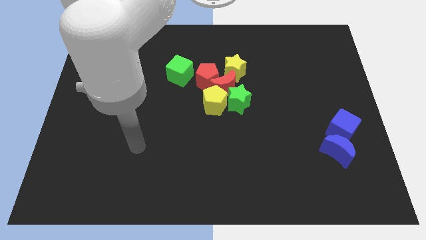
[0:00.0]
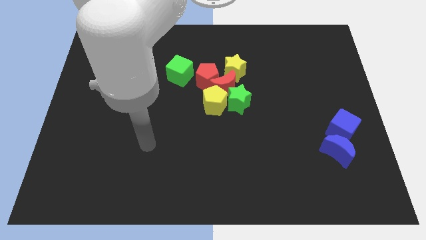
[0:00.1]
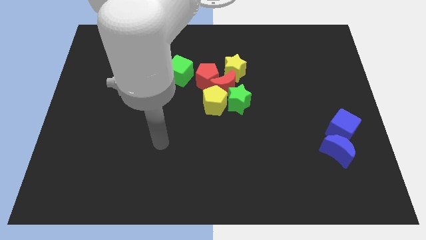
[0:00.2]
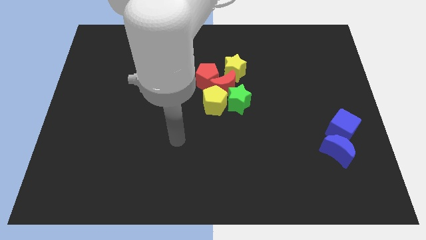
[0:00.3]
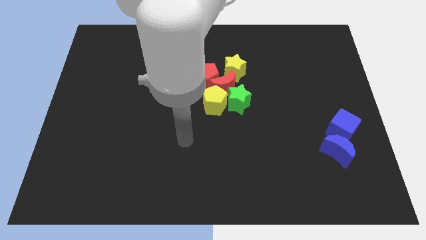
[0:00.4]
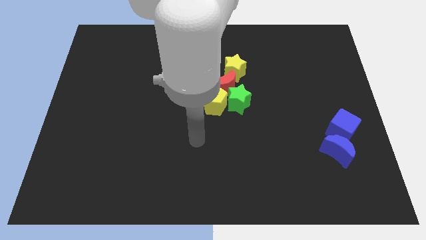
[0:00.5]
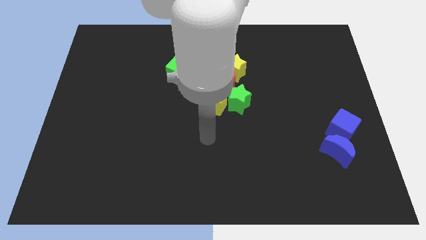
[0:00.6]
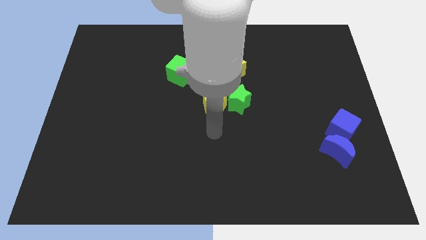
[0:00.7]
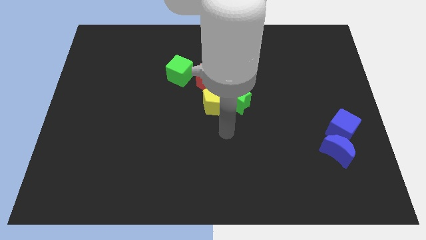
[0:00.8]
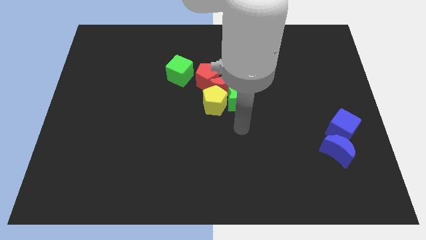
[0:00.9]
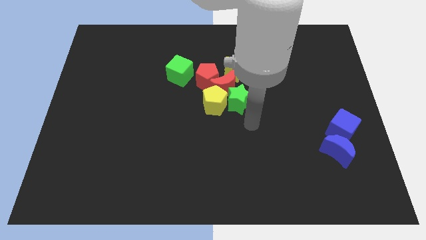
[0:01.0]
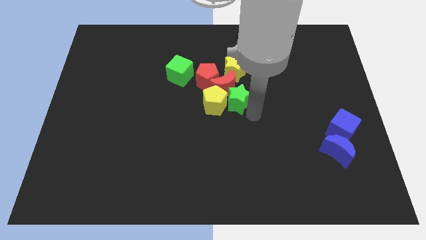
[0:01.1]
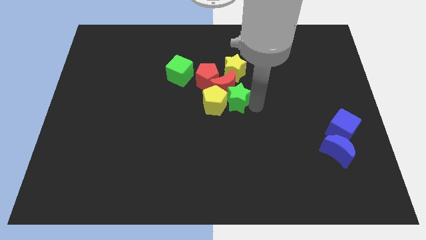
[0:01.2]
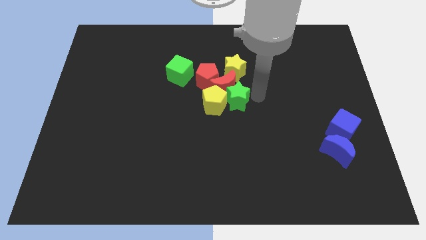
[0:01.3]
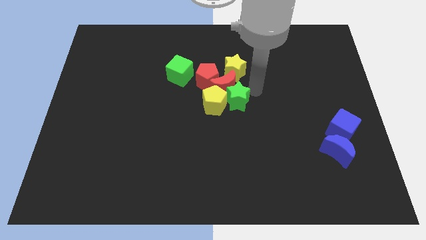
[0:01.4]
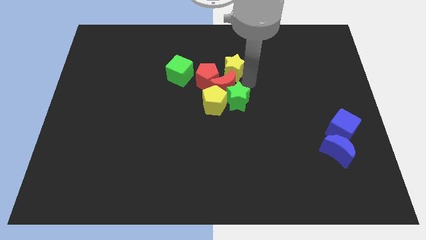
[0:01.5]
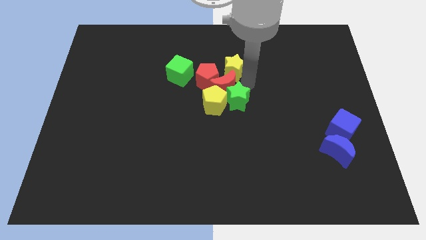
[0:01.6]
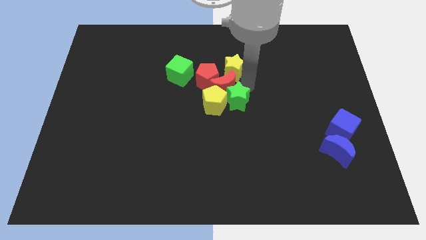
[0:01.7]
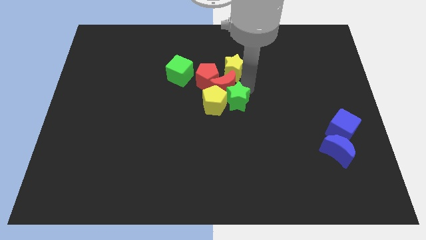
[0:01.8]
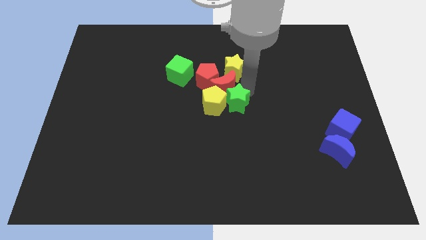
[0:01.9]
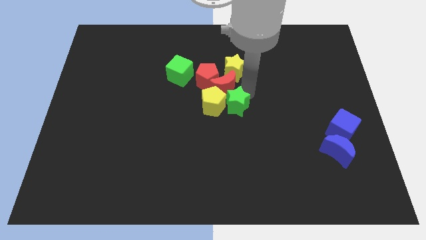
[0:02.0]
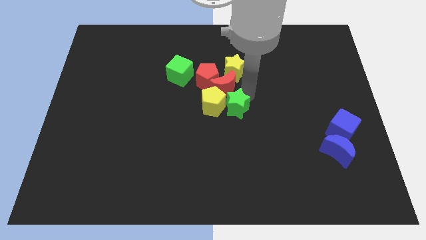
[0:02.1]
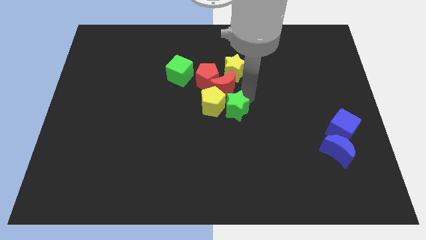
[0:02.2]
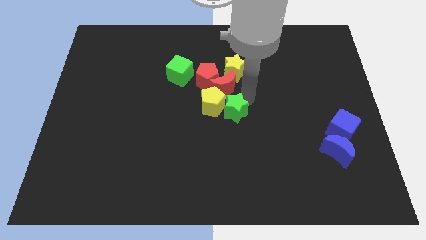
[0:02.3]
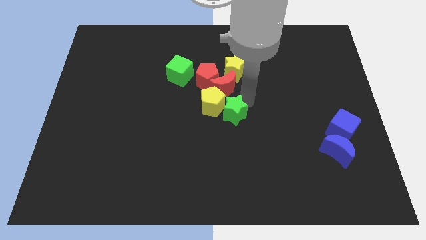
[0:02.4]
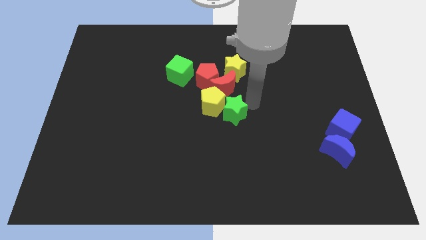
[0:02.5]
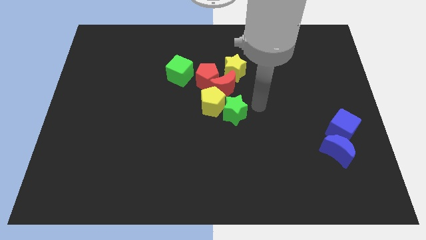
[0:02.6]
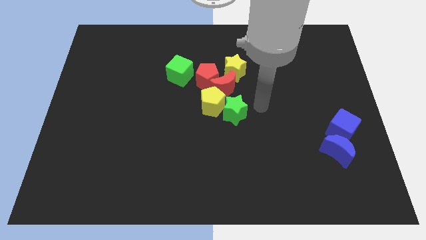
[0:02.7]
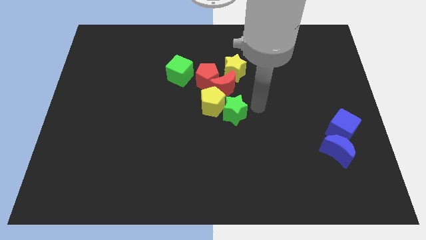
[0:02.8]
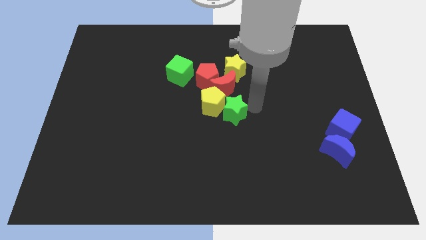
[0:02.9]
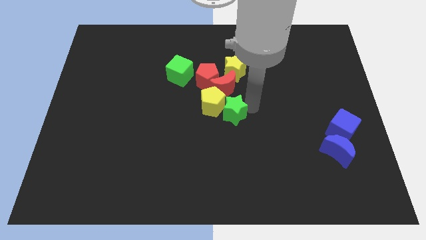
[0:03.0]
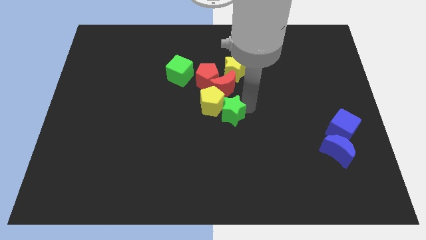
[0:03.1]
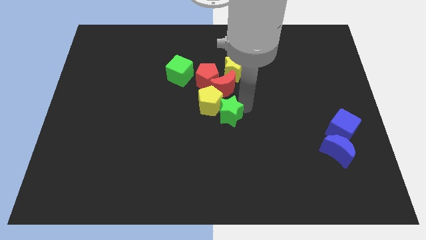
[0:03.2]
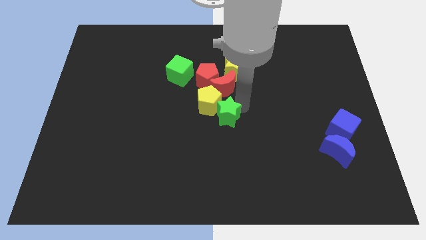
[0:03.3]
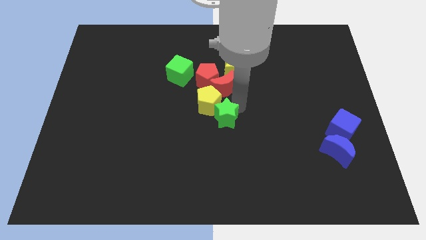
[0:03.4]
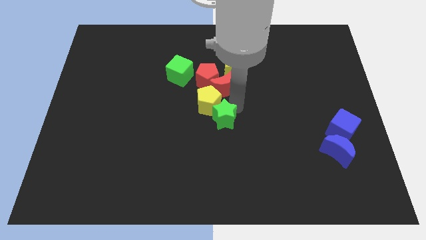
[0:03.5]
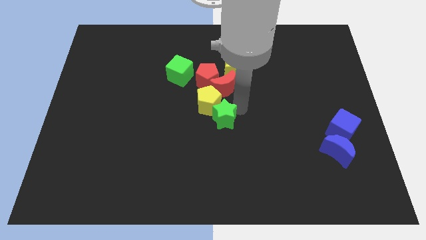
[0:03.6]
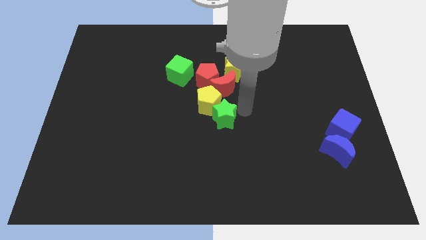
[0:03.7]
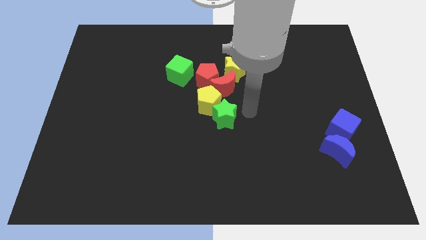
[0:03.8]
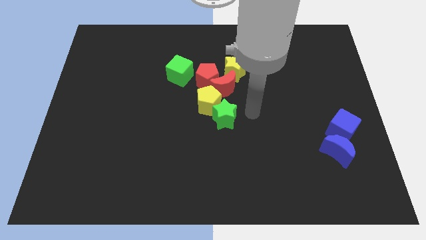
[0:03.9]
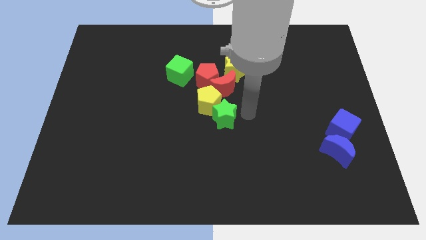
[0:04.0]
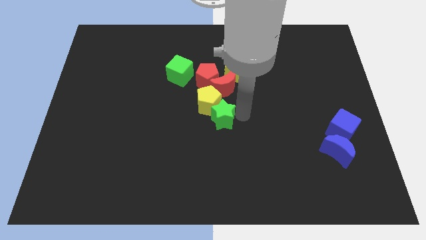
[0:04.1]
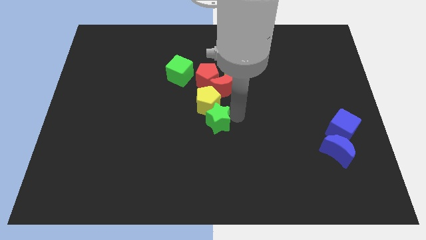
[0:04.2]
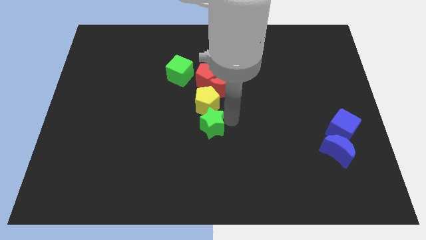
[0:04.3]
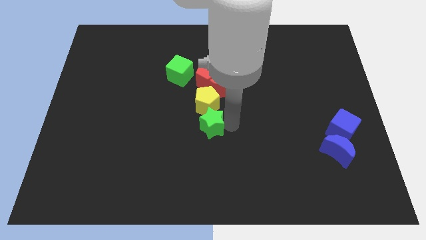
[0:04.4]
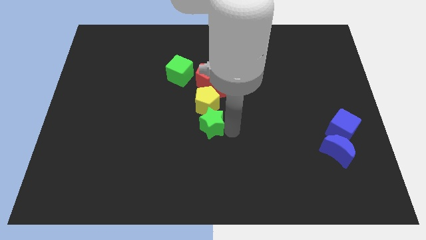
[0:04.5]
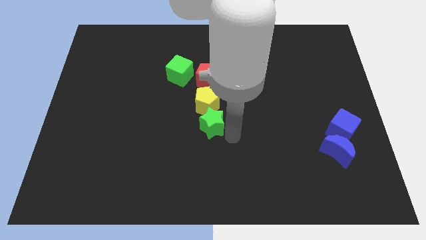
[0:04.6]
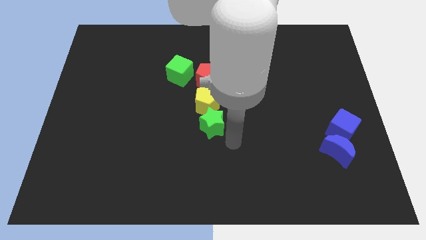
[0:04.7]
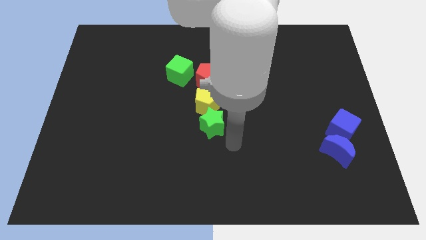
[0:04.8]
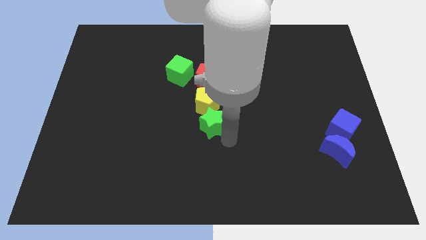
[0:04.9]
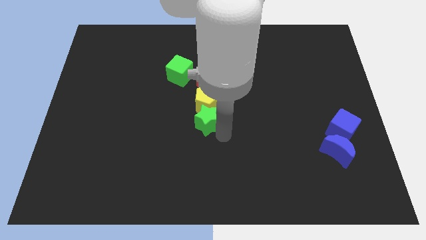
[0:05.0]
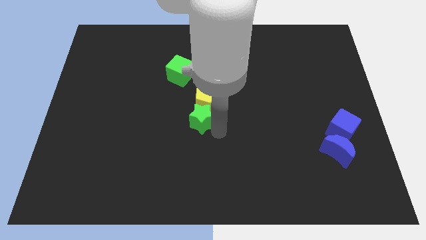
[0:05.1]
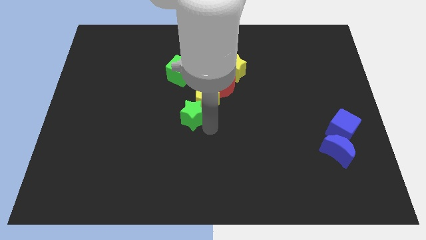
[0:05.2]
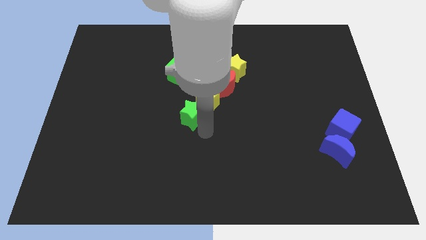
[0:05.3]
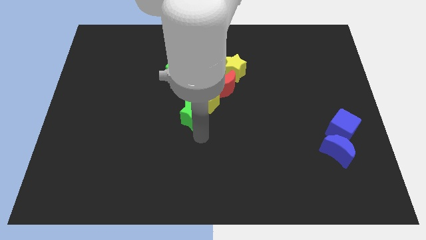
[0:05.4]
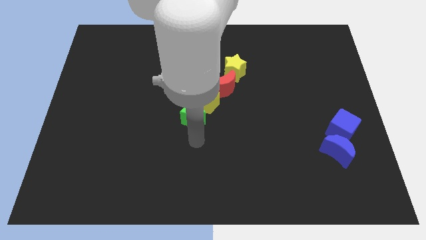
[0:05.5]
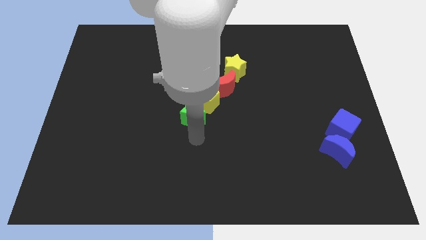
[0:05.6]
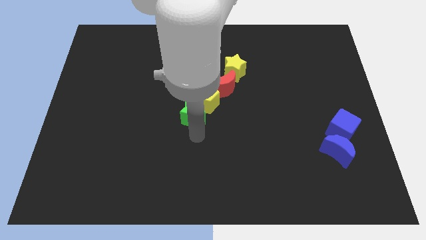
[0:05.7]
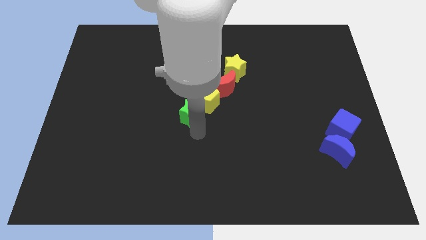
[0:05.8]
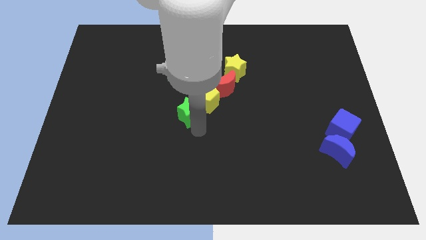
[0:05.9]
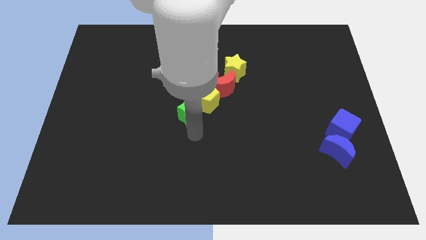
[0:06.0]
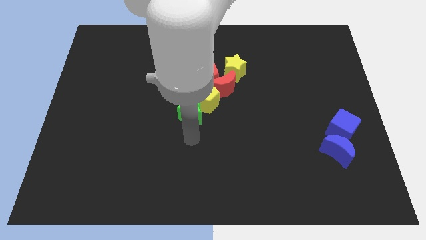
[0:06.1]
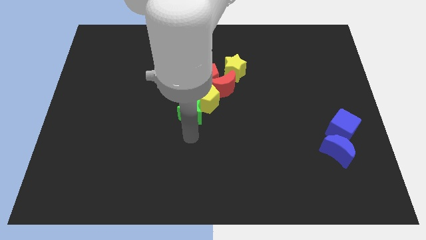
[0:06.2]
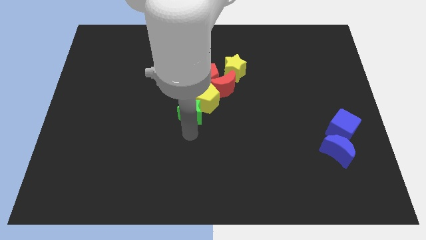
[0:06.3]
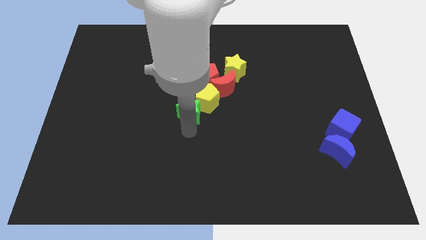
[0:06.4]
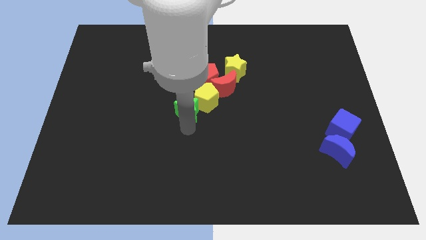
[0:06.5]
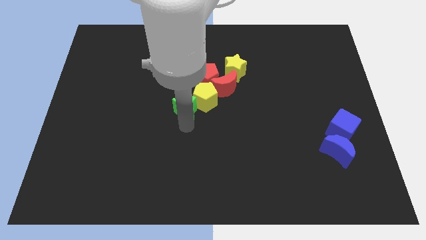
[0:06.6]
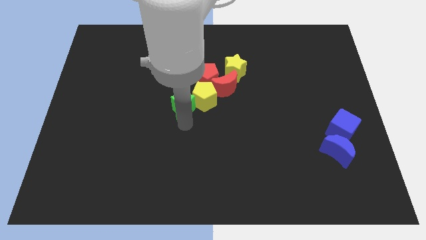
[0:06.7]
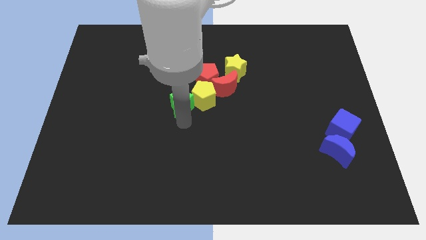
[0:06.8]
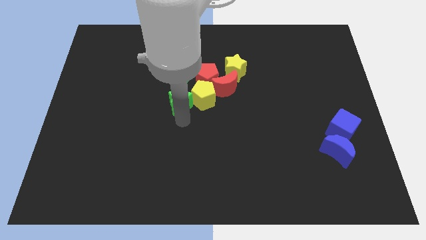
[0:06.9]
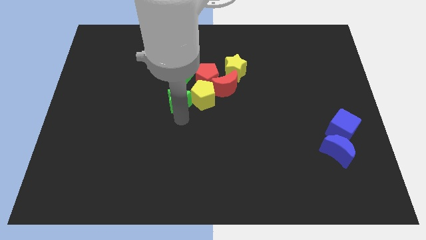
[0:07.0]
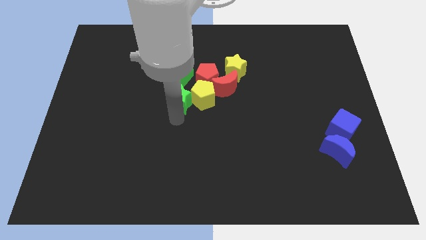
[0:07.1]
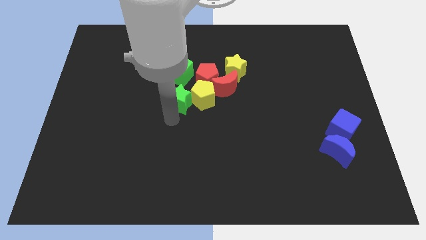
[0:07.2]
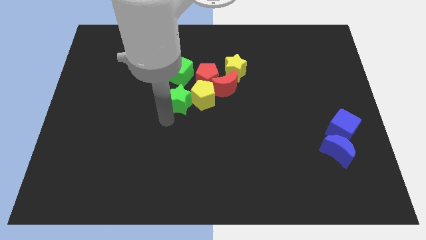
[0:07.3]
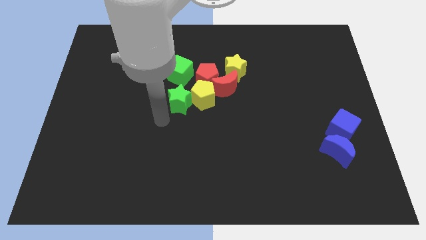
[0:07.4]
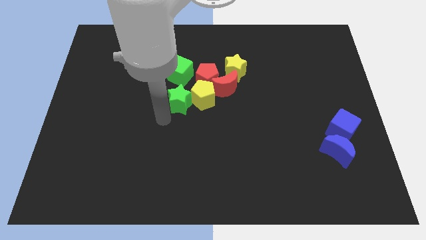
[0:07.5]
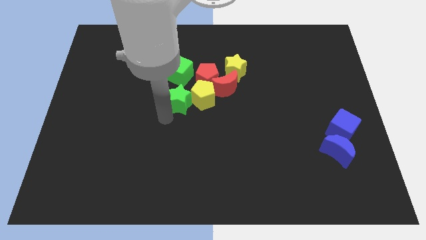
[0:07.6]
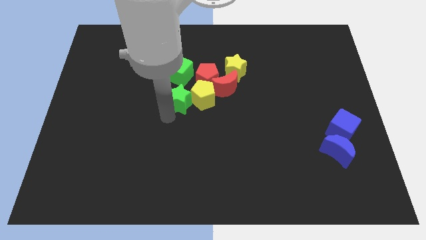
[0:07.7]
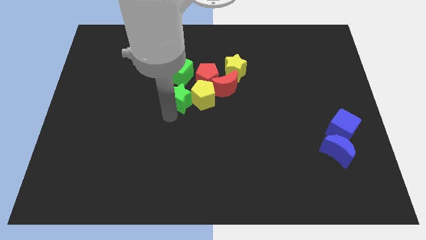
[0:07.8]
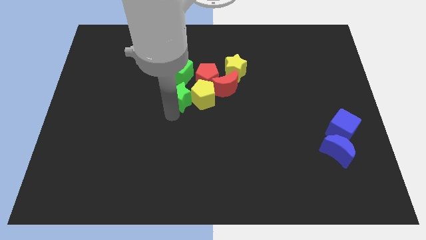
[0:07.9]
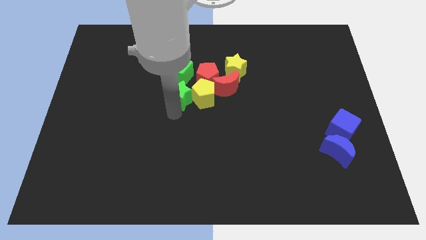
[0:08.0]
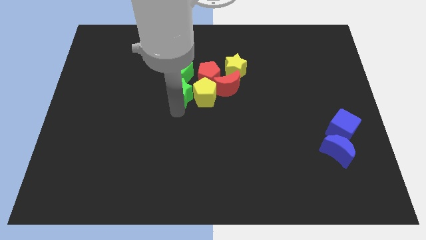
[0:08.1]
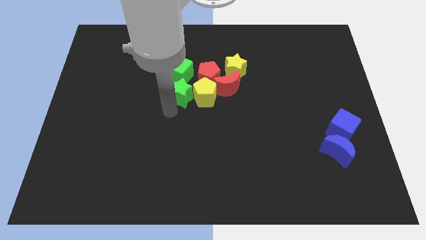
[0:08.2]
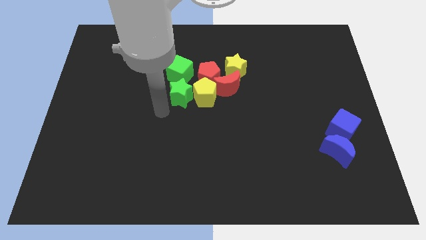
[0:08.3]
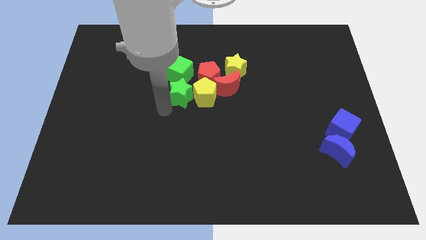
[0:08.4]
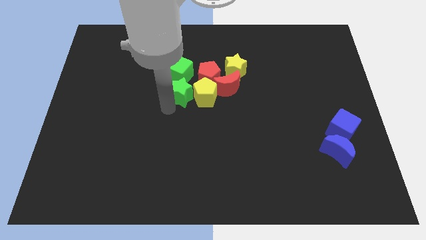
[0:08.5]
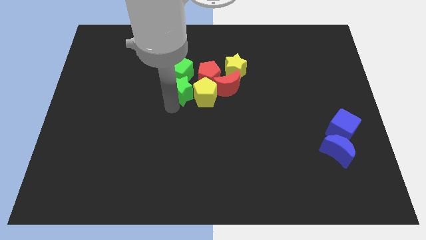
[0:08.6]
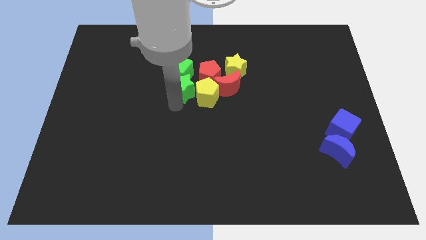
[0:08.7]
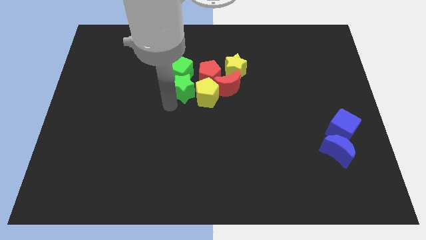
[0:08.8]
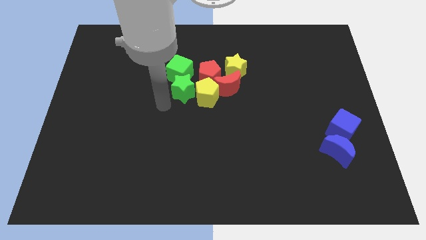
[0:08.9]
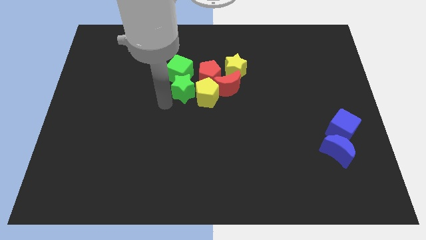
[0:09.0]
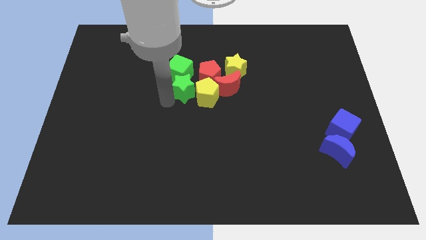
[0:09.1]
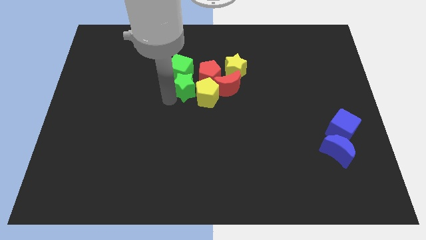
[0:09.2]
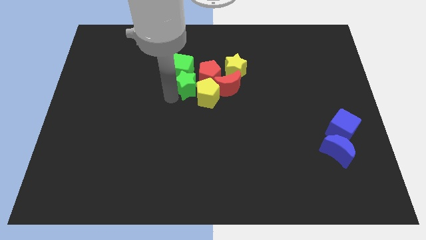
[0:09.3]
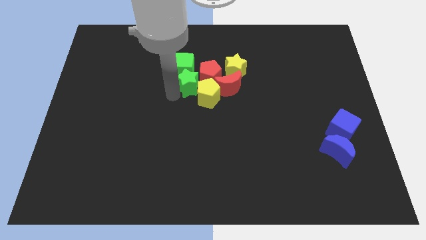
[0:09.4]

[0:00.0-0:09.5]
slide the green star to the red pentagon
